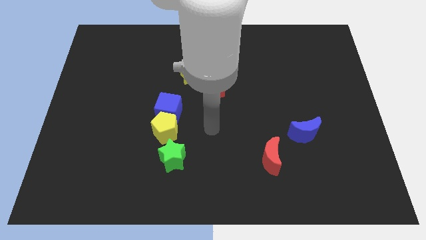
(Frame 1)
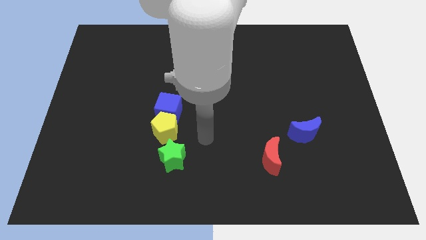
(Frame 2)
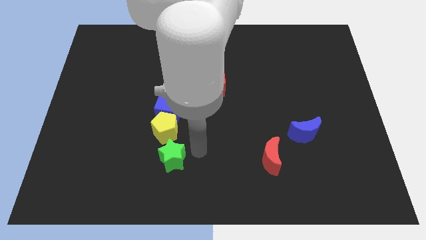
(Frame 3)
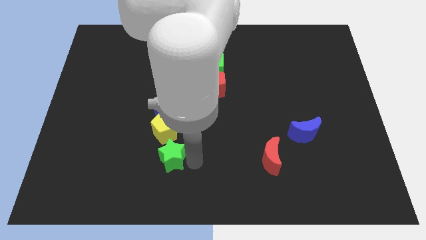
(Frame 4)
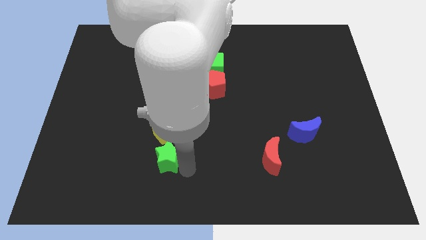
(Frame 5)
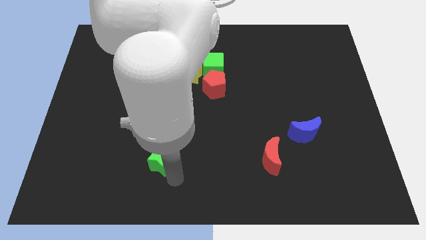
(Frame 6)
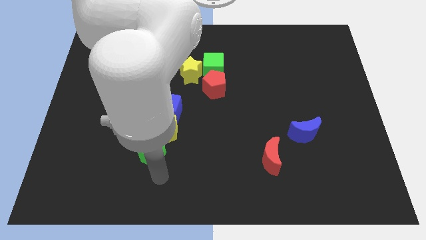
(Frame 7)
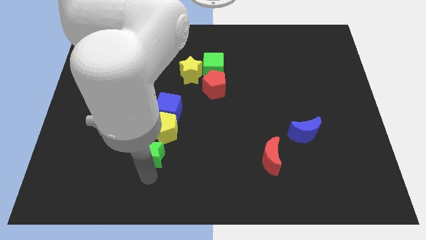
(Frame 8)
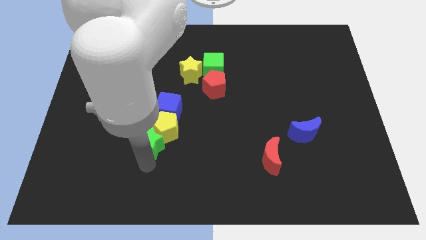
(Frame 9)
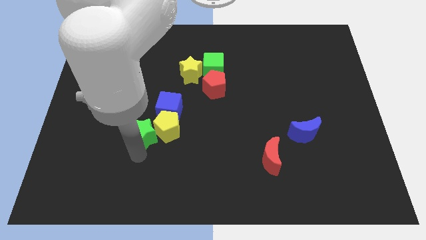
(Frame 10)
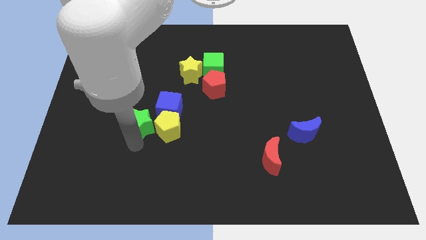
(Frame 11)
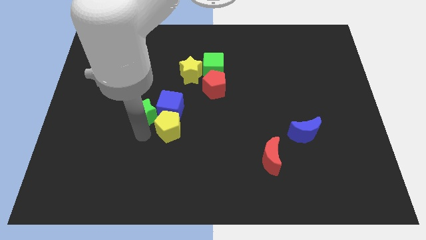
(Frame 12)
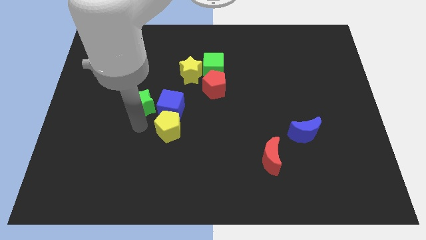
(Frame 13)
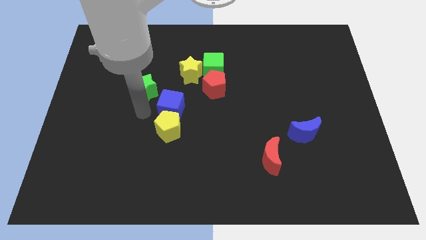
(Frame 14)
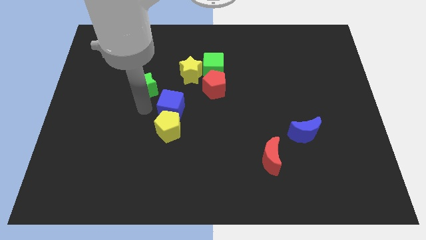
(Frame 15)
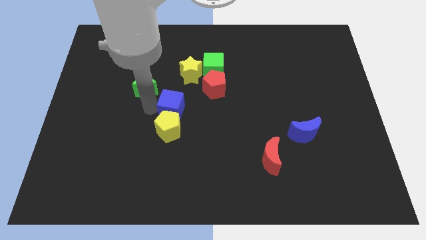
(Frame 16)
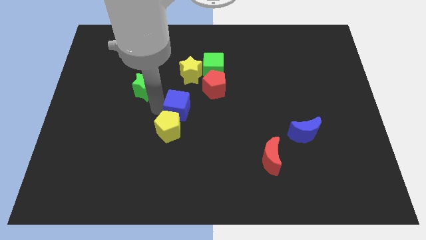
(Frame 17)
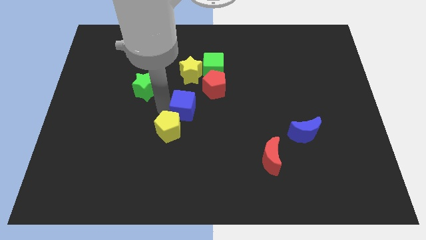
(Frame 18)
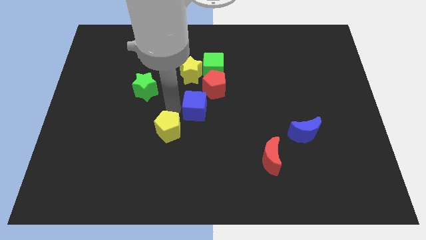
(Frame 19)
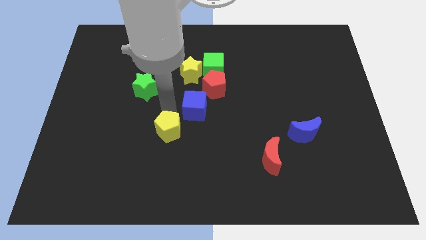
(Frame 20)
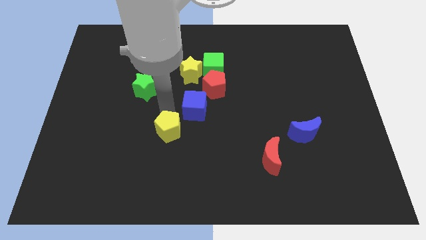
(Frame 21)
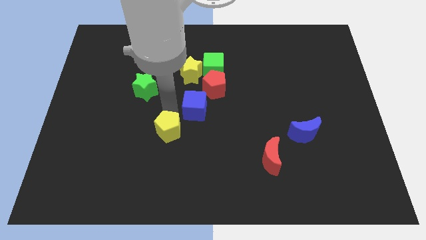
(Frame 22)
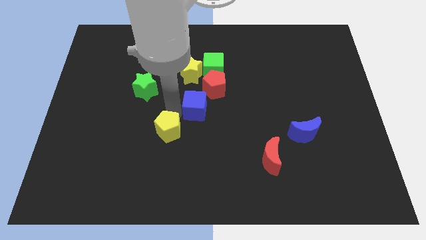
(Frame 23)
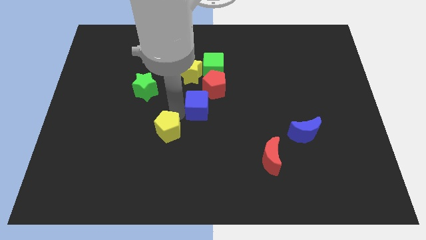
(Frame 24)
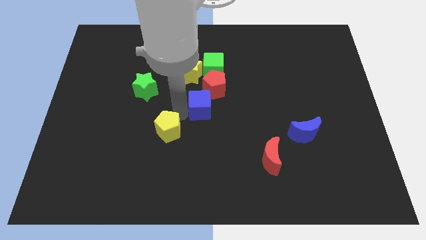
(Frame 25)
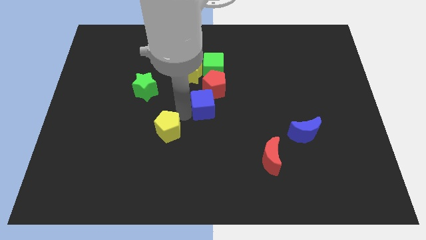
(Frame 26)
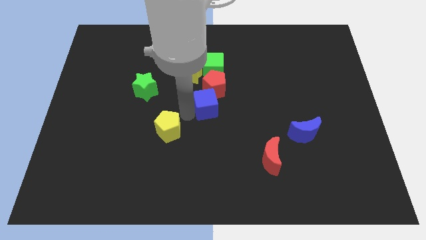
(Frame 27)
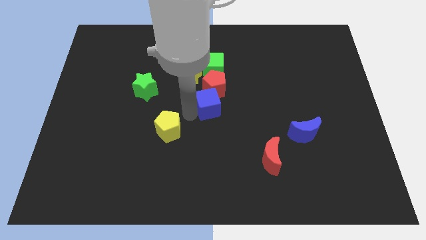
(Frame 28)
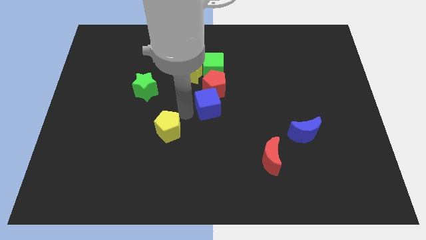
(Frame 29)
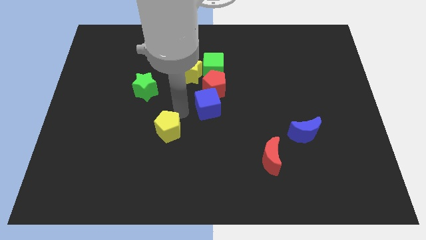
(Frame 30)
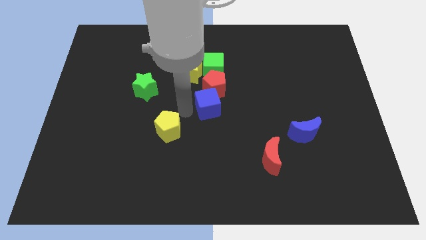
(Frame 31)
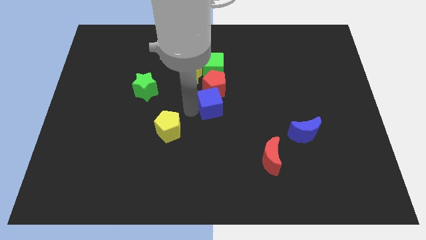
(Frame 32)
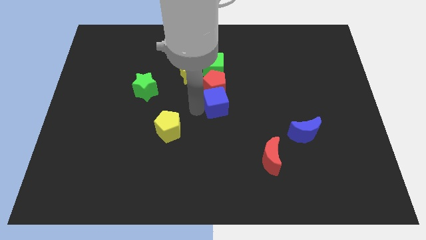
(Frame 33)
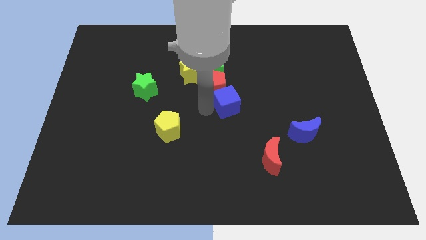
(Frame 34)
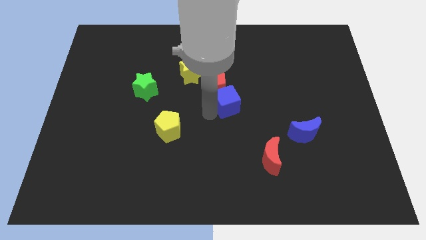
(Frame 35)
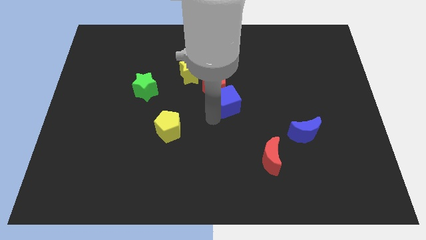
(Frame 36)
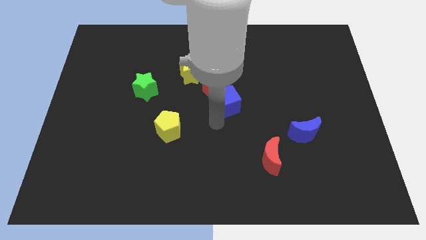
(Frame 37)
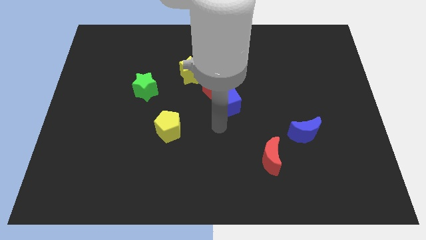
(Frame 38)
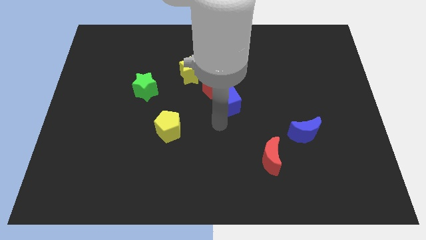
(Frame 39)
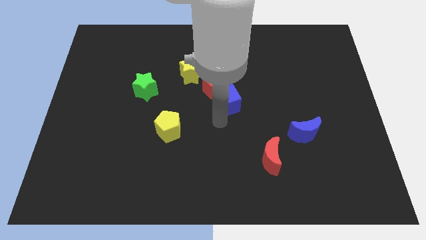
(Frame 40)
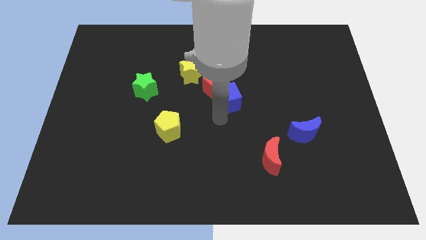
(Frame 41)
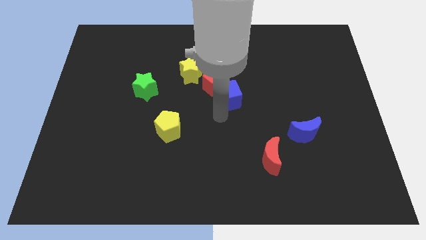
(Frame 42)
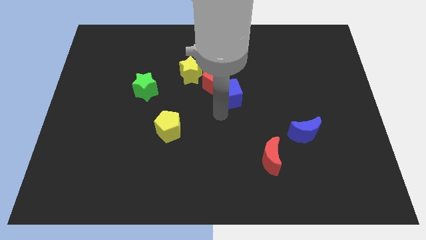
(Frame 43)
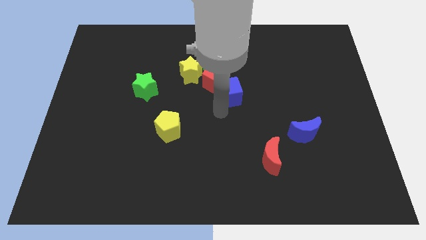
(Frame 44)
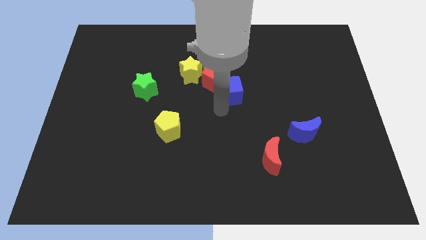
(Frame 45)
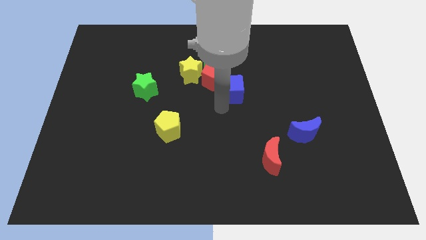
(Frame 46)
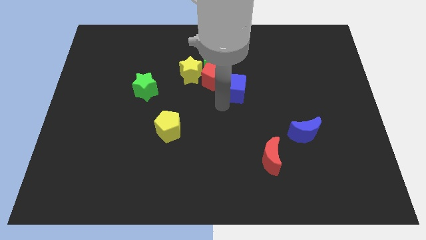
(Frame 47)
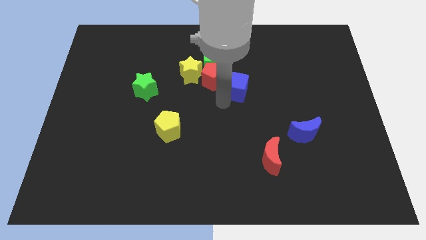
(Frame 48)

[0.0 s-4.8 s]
slide the blue cube to the right side of the yellow star

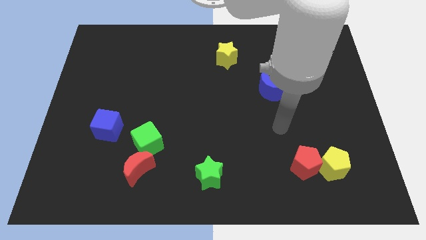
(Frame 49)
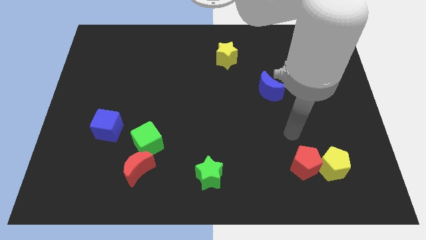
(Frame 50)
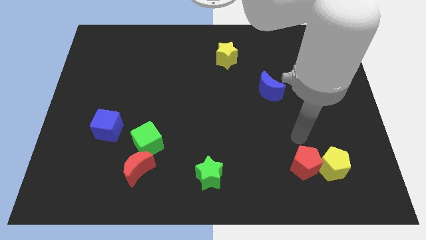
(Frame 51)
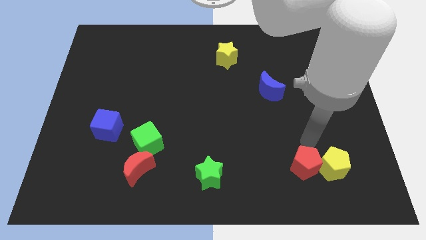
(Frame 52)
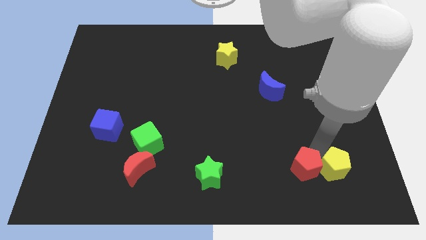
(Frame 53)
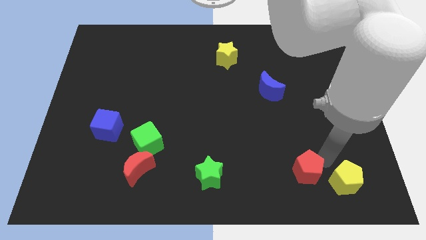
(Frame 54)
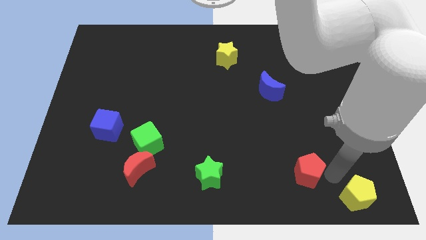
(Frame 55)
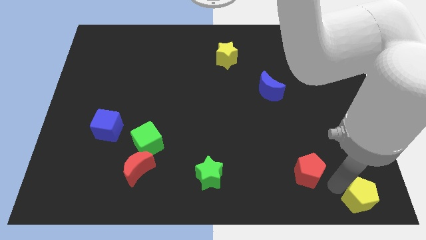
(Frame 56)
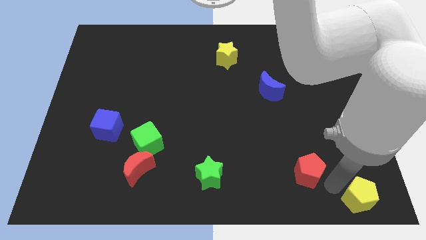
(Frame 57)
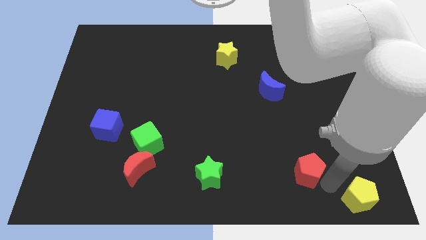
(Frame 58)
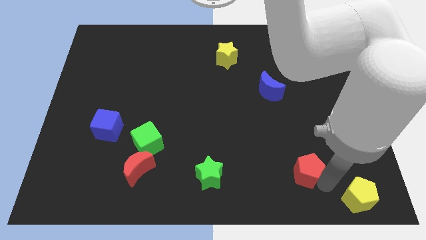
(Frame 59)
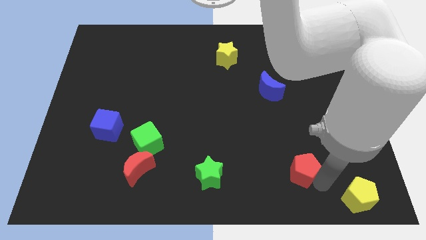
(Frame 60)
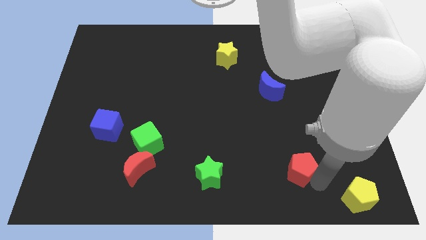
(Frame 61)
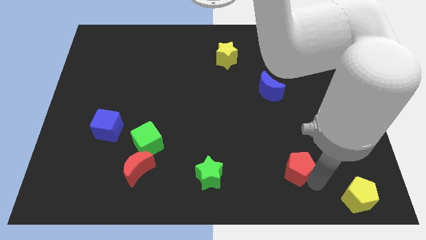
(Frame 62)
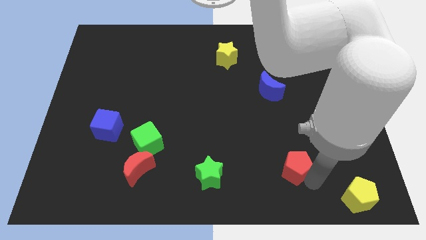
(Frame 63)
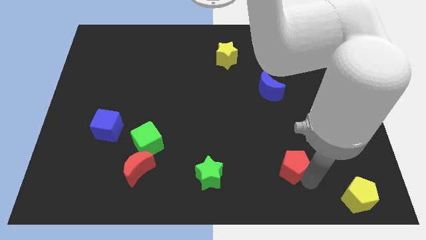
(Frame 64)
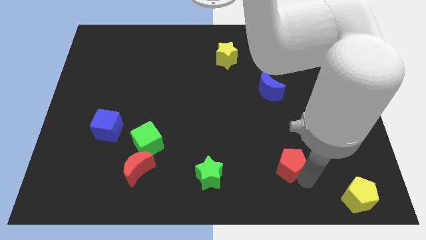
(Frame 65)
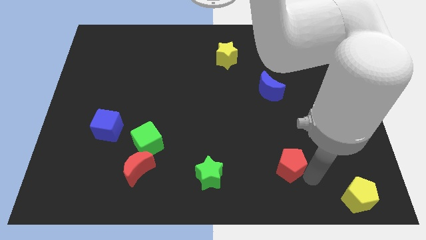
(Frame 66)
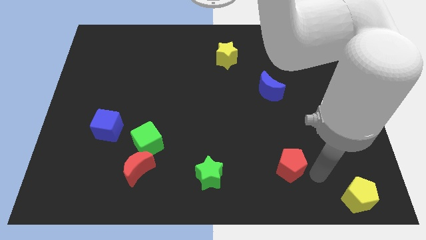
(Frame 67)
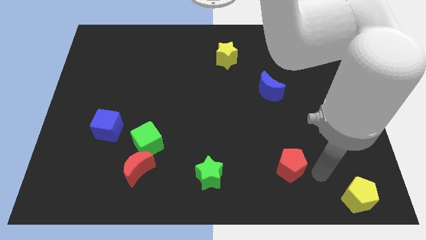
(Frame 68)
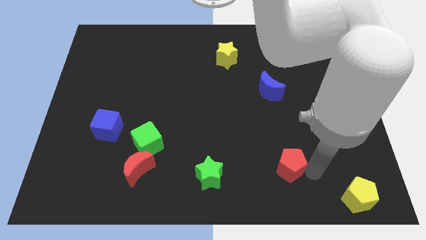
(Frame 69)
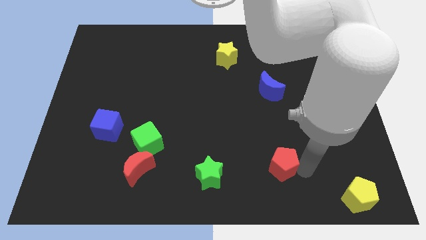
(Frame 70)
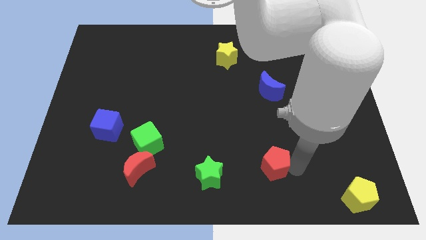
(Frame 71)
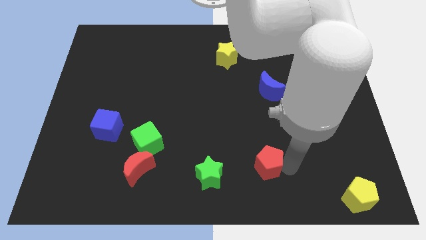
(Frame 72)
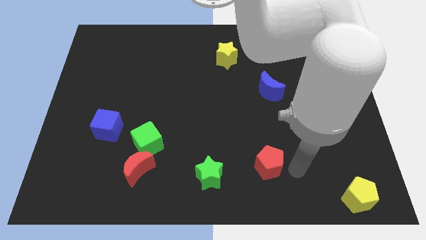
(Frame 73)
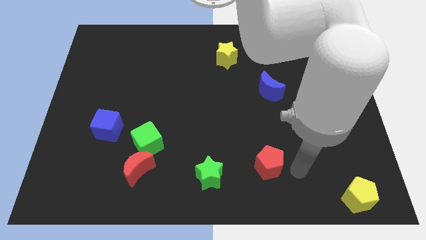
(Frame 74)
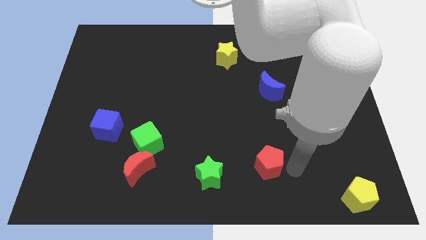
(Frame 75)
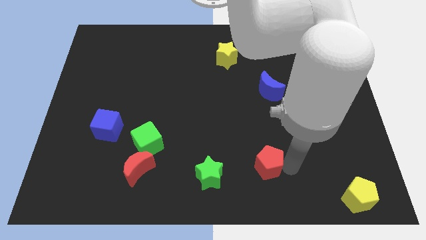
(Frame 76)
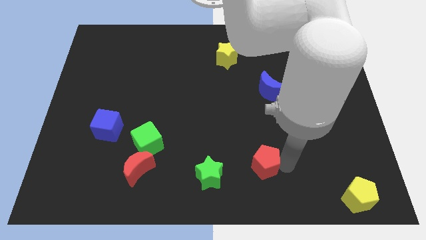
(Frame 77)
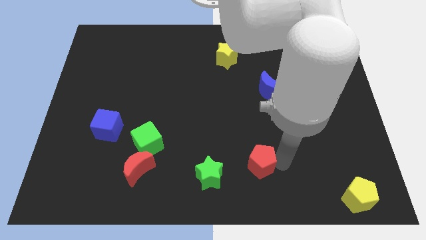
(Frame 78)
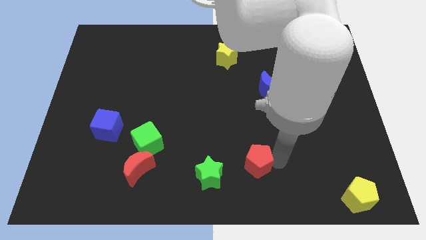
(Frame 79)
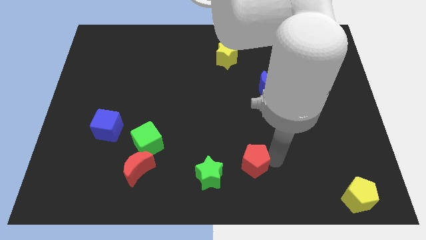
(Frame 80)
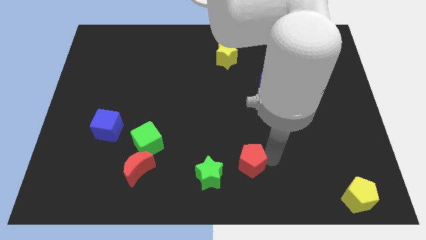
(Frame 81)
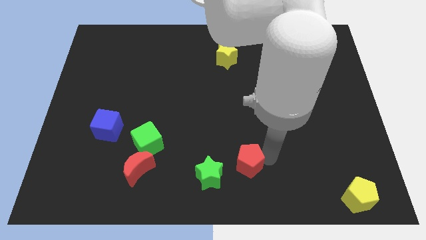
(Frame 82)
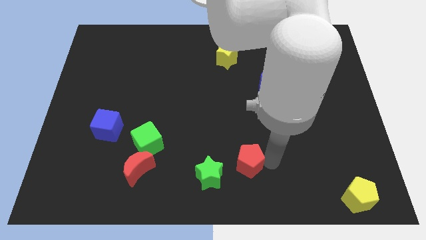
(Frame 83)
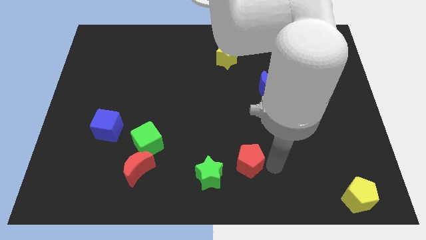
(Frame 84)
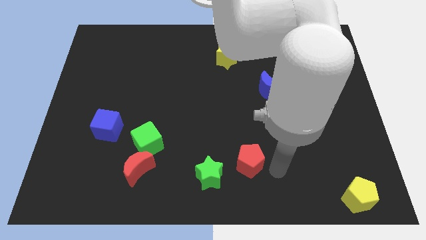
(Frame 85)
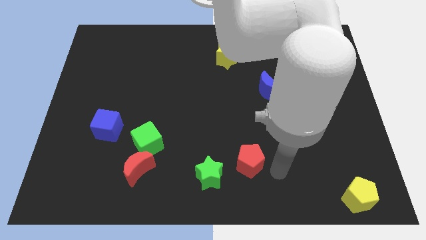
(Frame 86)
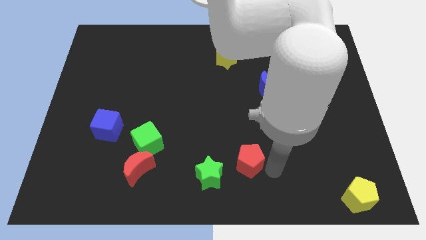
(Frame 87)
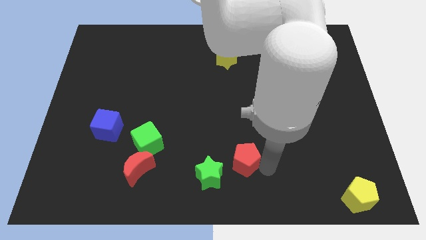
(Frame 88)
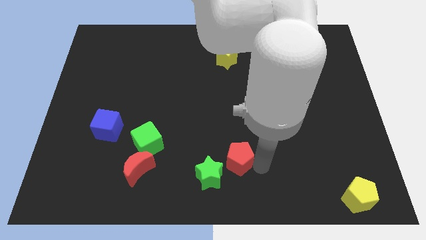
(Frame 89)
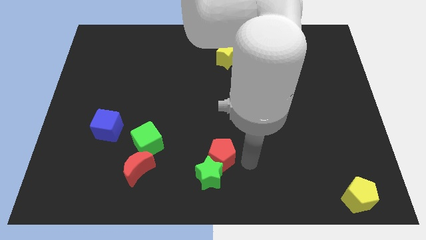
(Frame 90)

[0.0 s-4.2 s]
push the red pentagon to the top left of the green star
